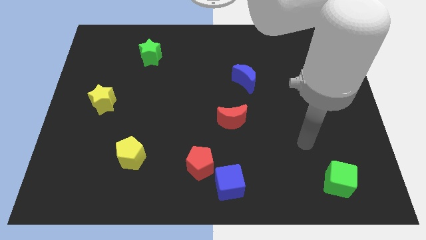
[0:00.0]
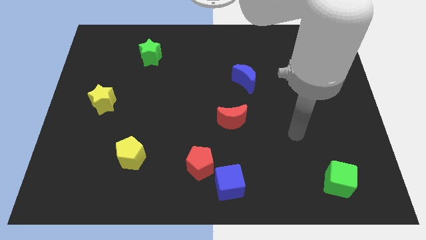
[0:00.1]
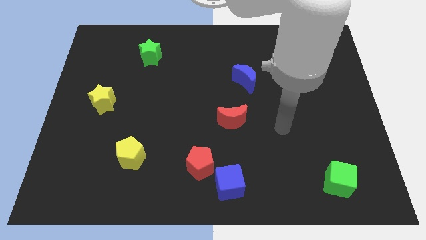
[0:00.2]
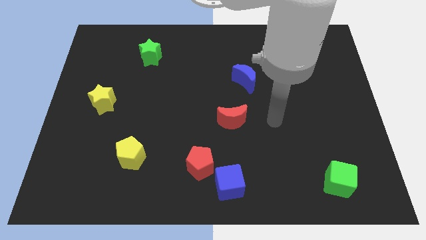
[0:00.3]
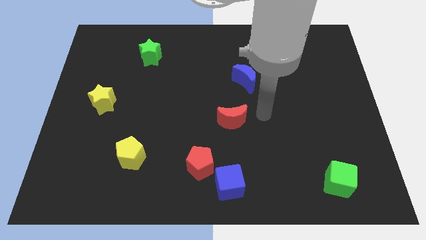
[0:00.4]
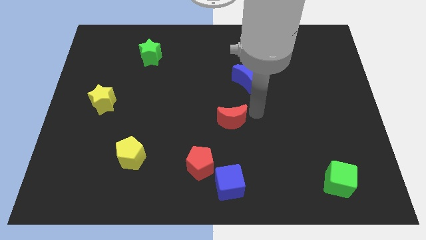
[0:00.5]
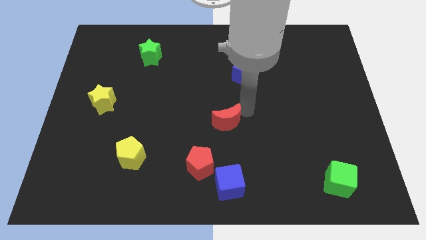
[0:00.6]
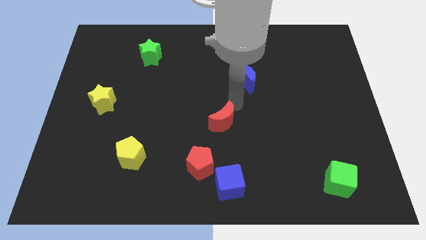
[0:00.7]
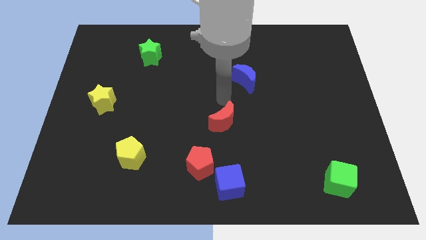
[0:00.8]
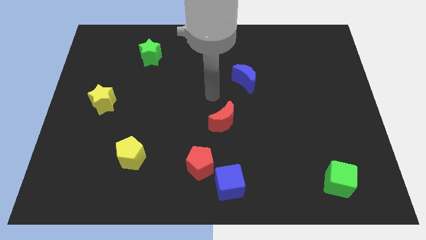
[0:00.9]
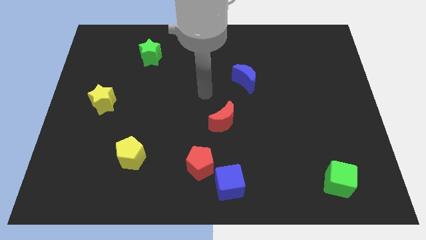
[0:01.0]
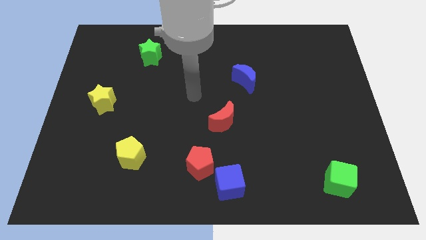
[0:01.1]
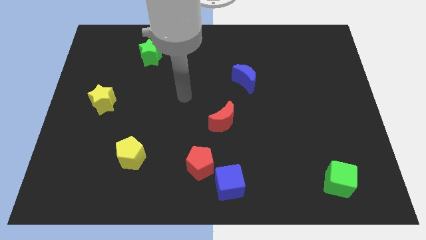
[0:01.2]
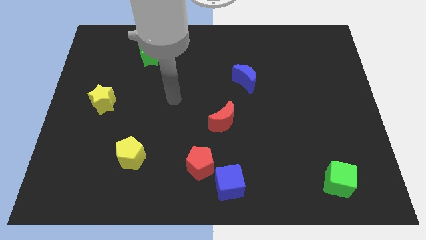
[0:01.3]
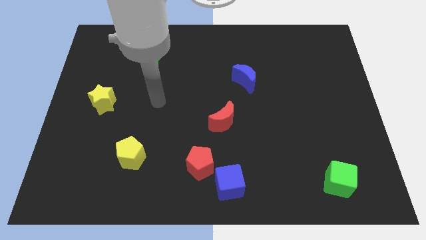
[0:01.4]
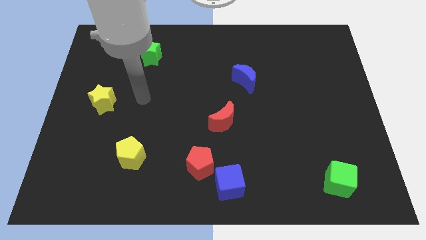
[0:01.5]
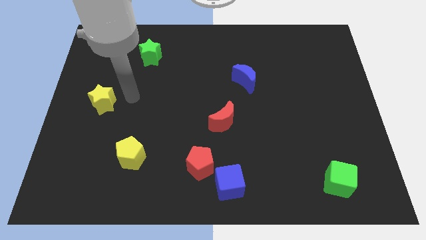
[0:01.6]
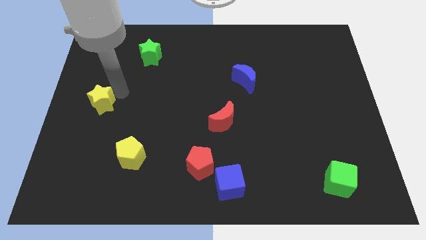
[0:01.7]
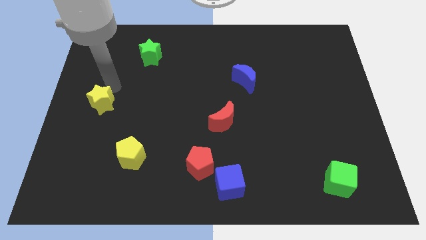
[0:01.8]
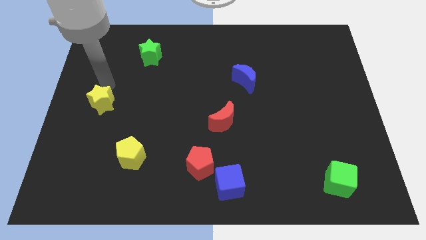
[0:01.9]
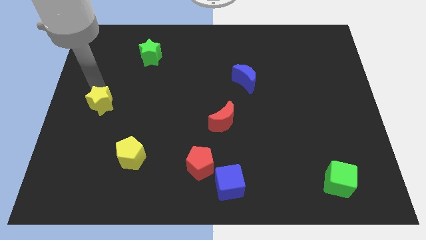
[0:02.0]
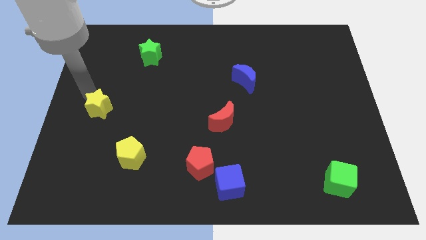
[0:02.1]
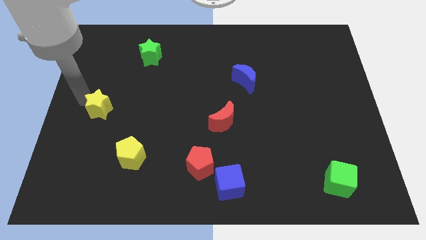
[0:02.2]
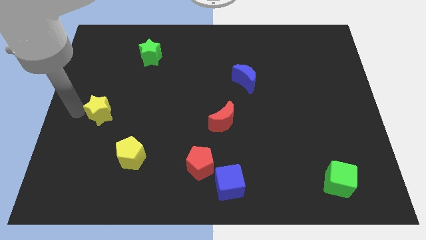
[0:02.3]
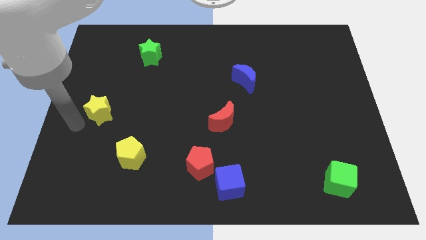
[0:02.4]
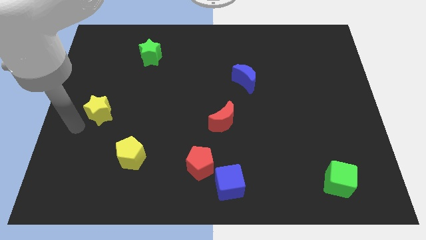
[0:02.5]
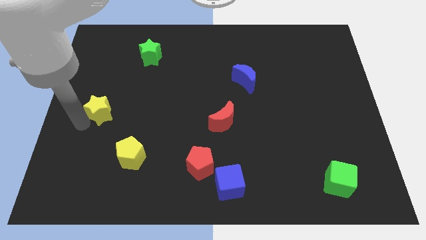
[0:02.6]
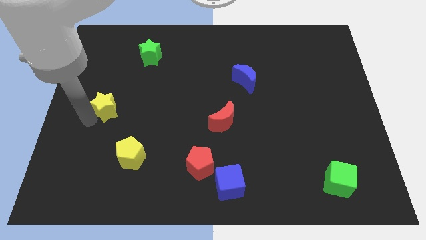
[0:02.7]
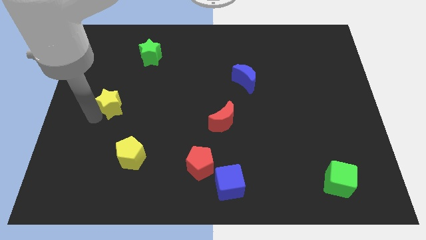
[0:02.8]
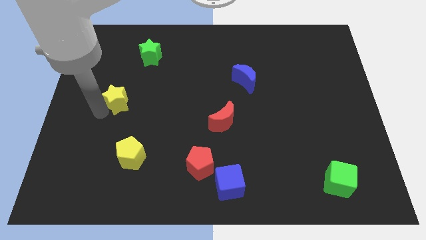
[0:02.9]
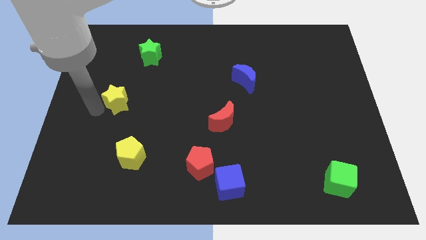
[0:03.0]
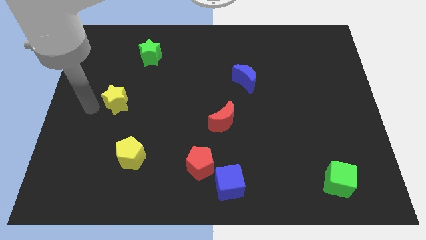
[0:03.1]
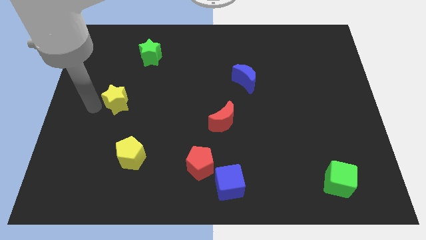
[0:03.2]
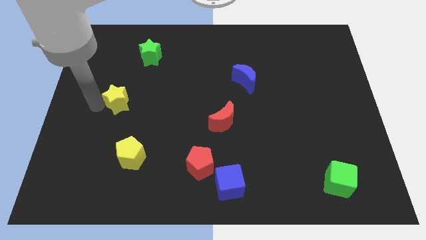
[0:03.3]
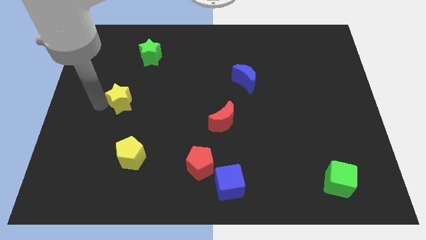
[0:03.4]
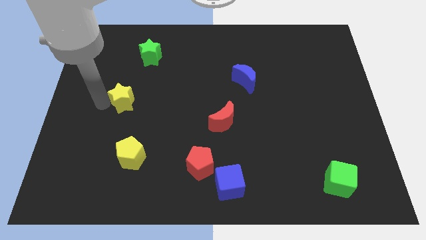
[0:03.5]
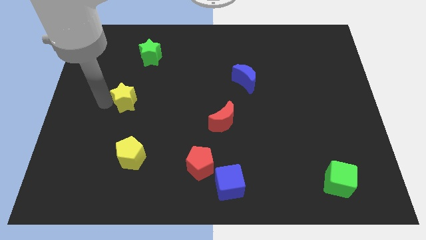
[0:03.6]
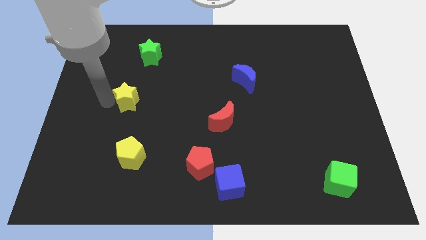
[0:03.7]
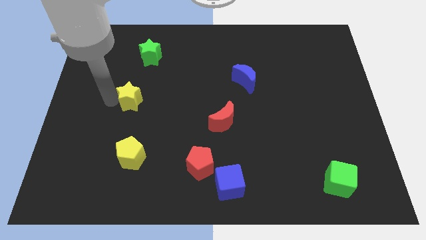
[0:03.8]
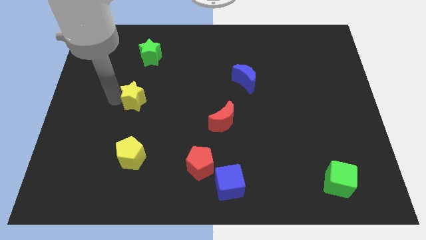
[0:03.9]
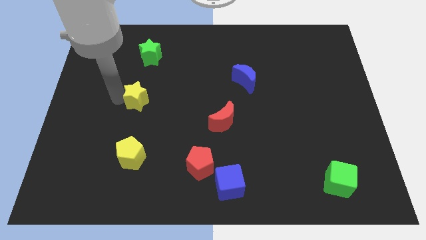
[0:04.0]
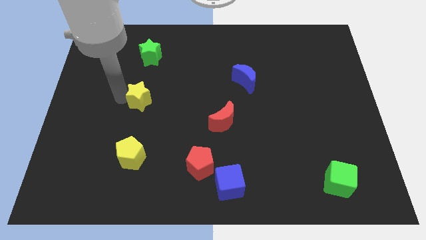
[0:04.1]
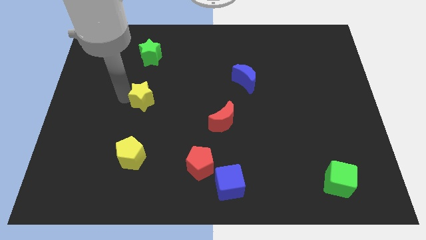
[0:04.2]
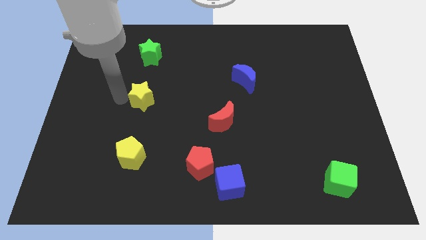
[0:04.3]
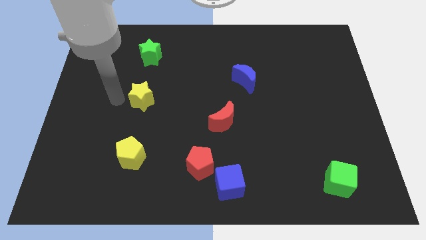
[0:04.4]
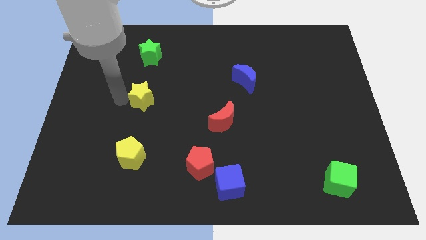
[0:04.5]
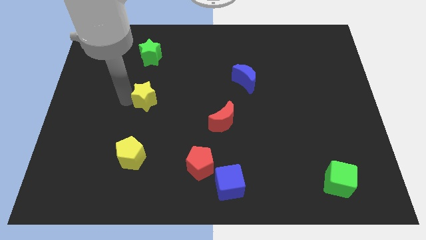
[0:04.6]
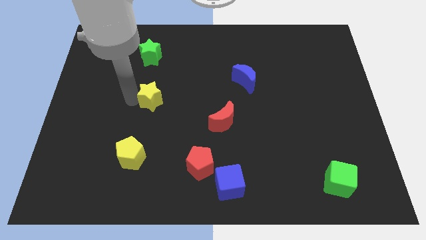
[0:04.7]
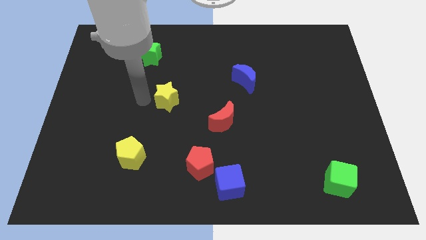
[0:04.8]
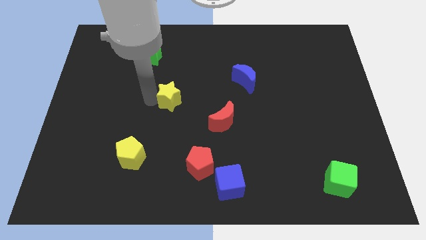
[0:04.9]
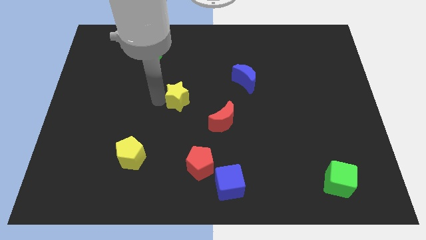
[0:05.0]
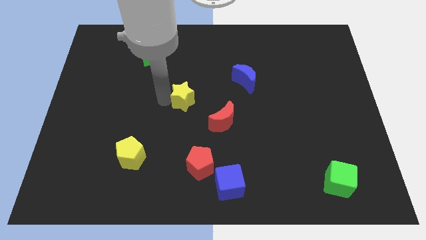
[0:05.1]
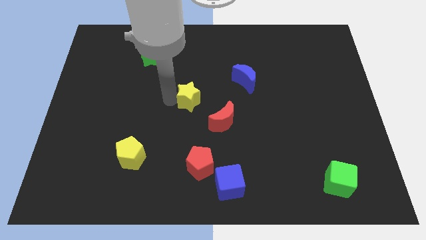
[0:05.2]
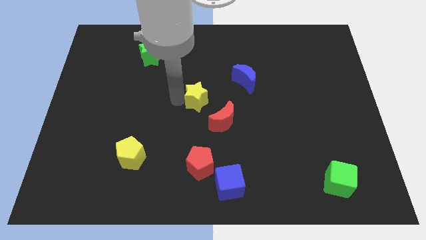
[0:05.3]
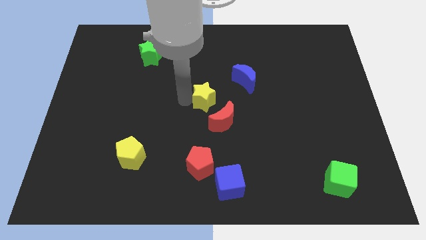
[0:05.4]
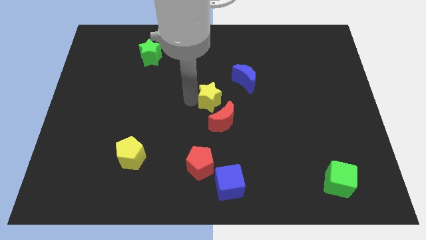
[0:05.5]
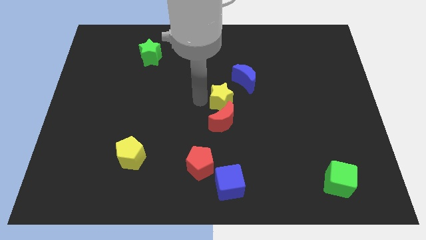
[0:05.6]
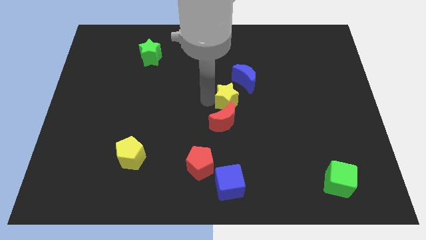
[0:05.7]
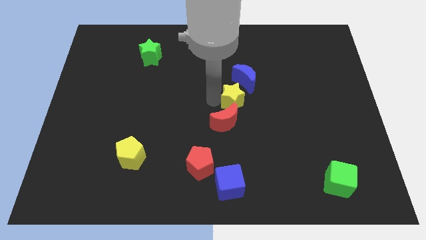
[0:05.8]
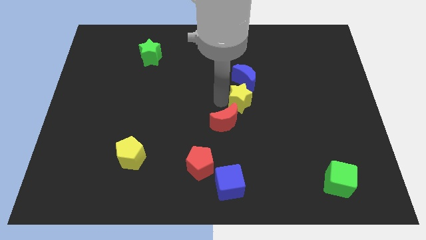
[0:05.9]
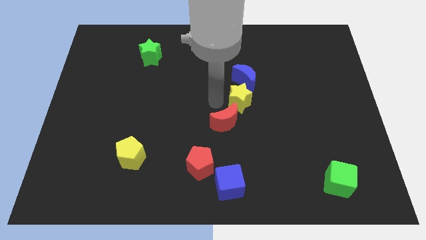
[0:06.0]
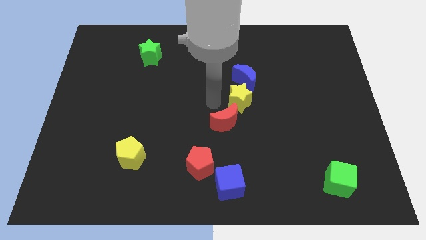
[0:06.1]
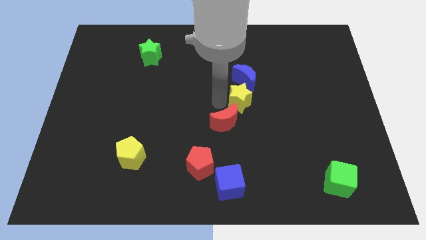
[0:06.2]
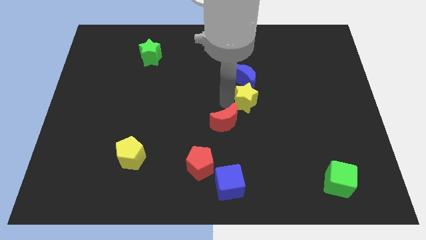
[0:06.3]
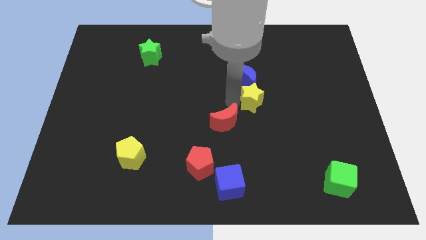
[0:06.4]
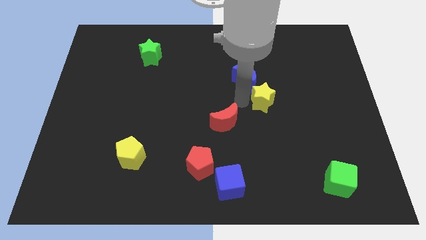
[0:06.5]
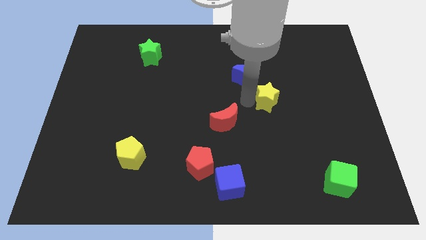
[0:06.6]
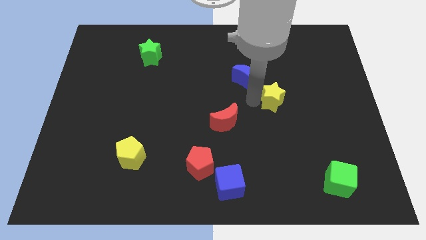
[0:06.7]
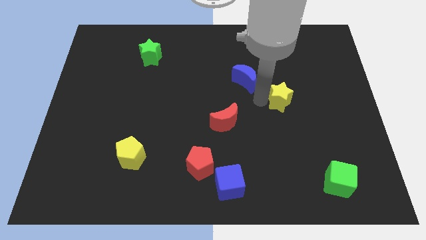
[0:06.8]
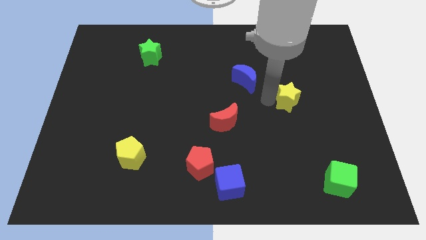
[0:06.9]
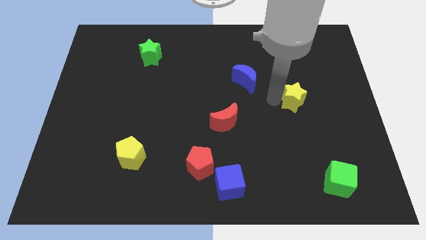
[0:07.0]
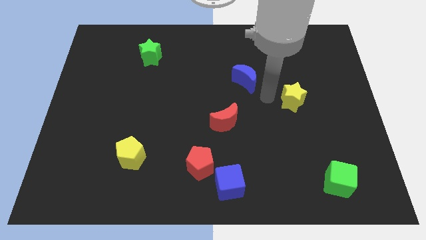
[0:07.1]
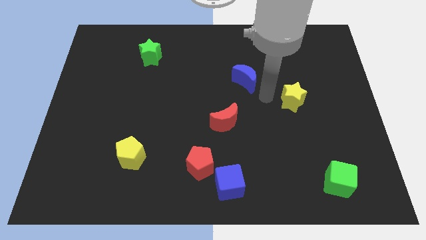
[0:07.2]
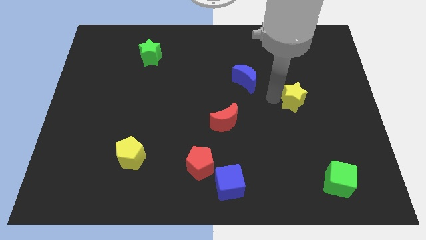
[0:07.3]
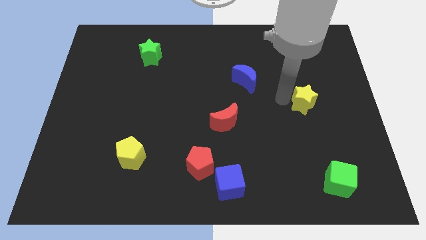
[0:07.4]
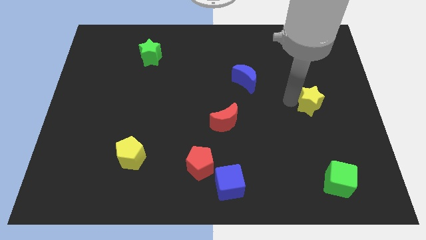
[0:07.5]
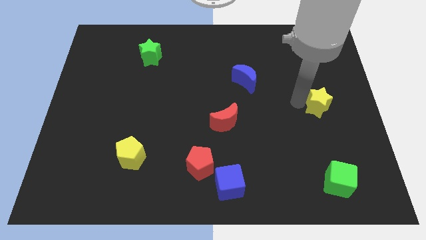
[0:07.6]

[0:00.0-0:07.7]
put the yellow star to the center right

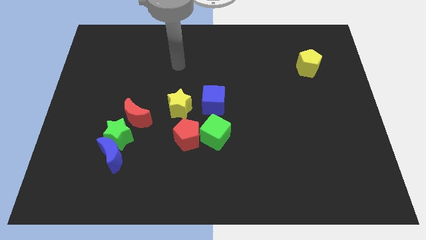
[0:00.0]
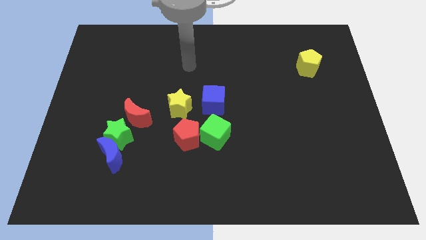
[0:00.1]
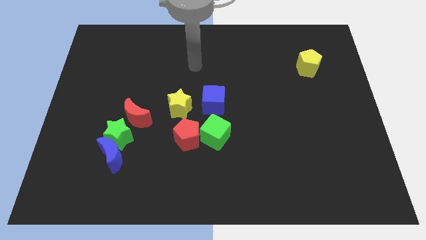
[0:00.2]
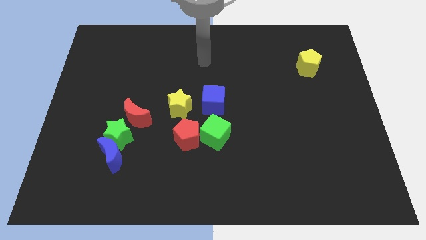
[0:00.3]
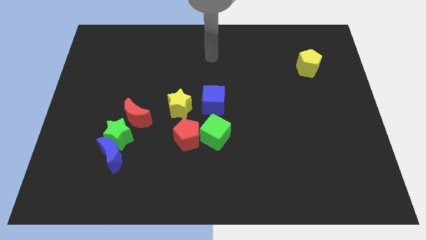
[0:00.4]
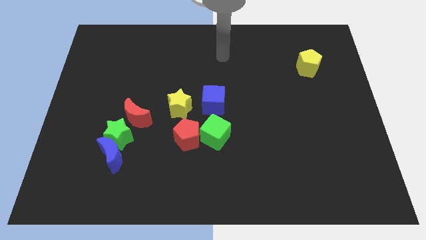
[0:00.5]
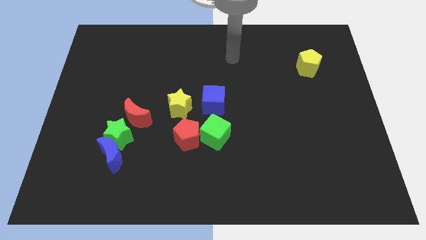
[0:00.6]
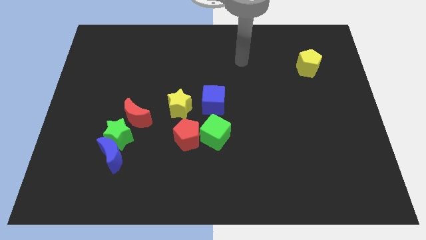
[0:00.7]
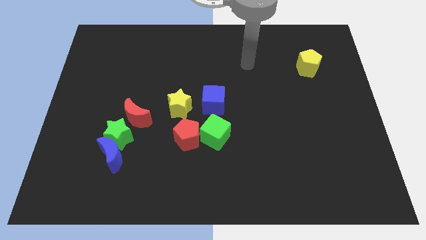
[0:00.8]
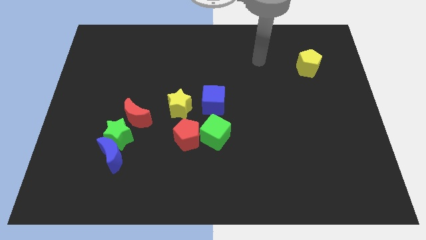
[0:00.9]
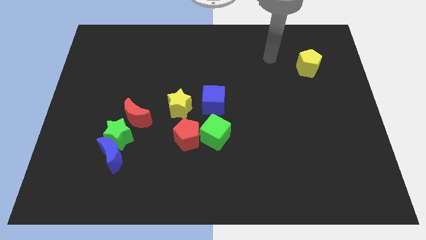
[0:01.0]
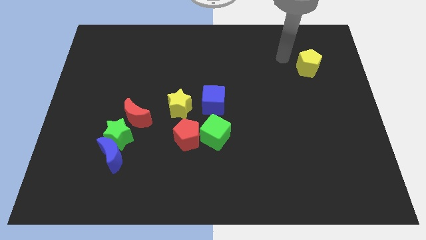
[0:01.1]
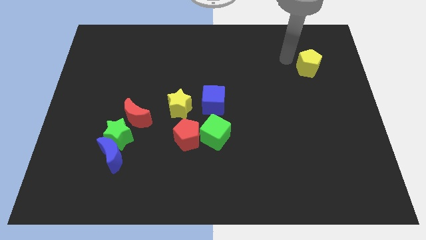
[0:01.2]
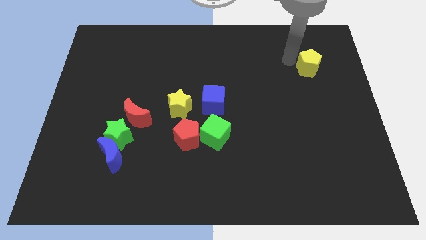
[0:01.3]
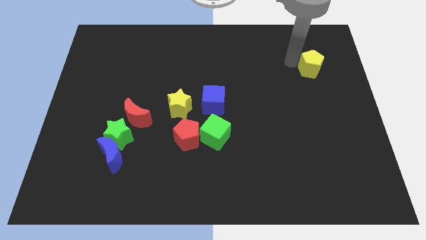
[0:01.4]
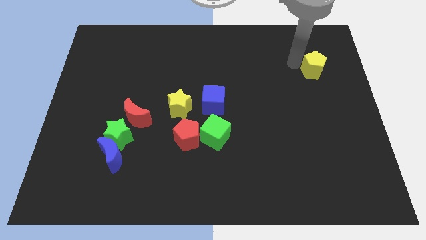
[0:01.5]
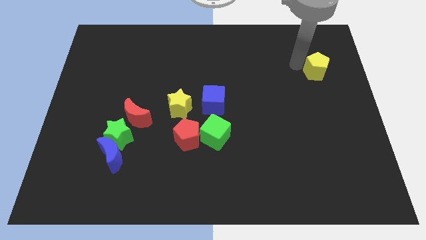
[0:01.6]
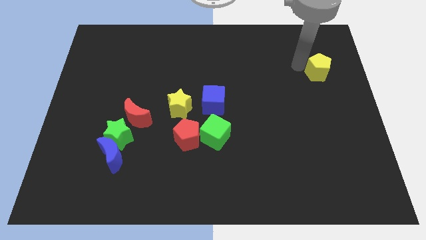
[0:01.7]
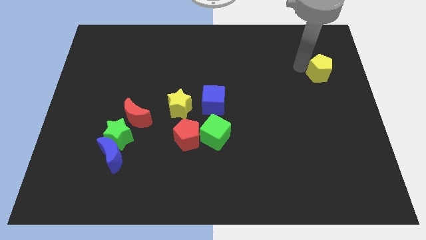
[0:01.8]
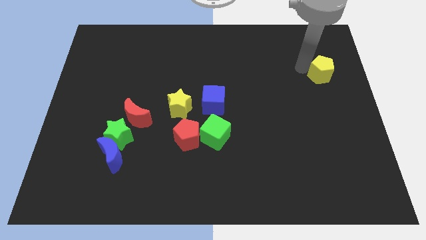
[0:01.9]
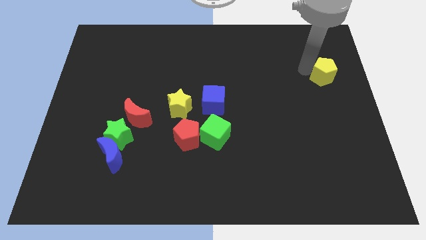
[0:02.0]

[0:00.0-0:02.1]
move the yellow pentagon to the right side
